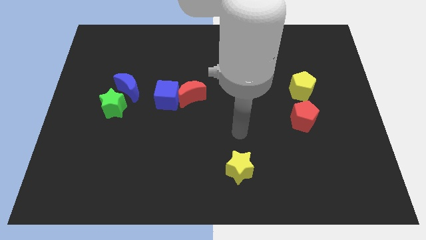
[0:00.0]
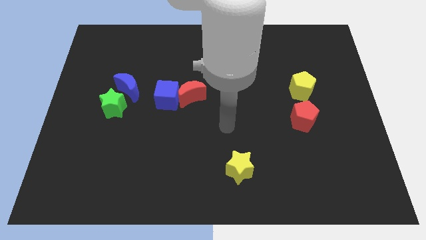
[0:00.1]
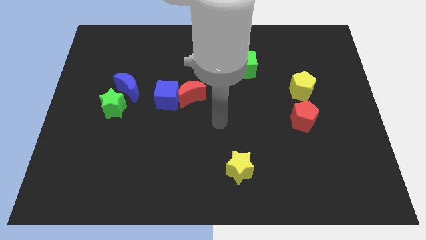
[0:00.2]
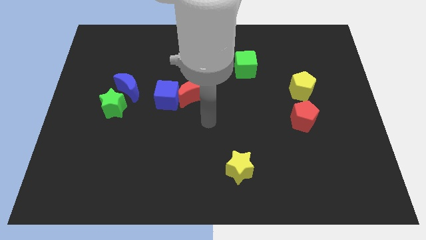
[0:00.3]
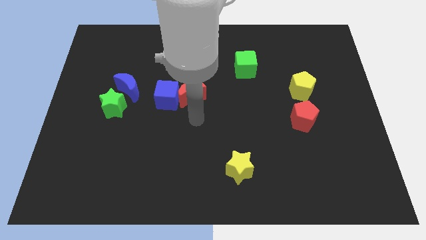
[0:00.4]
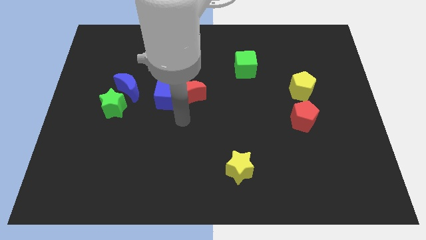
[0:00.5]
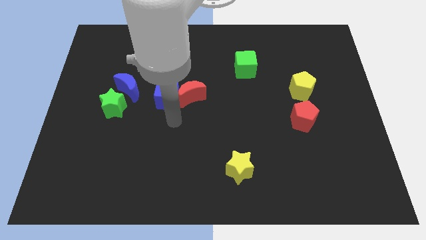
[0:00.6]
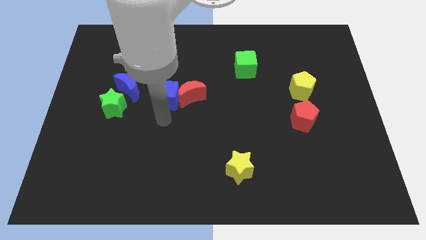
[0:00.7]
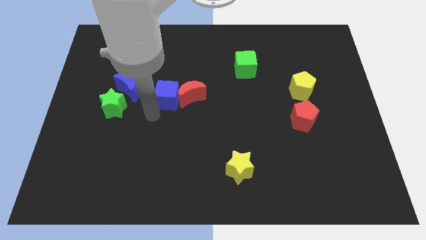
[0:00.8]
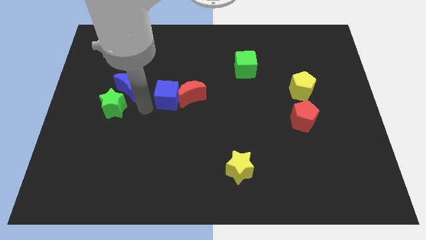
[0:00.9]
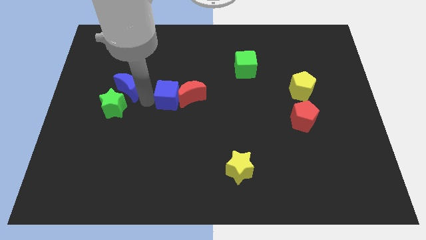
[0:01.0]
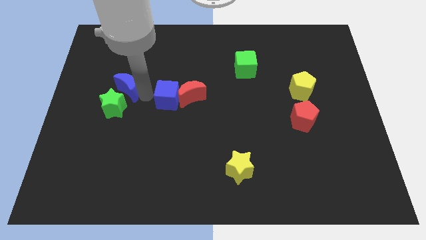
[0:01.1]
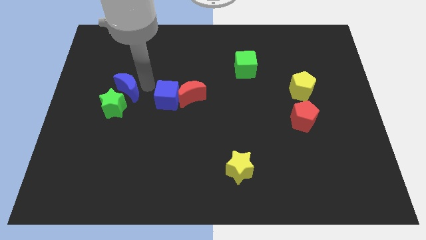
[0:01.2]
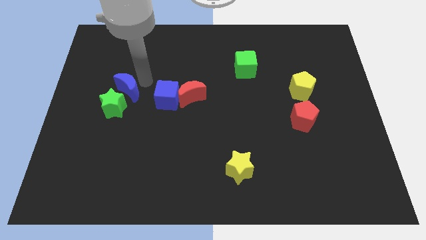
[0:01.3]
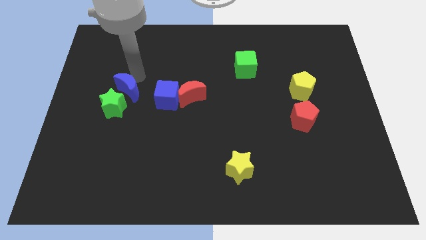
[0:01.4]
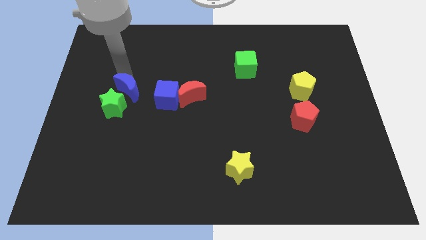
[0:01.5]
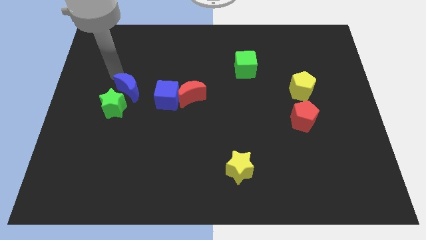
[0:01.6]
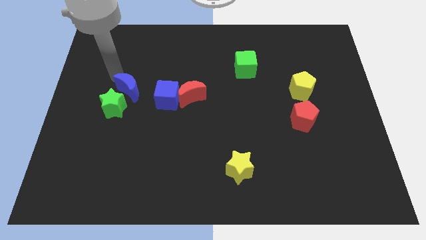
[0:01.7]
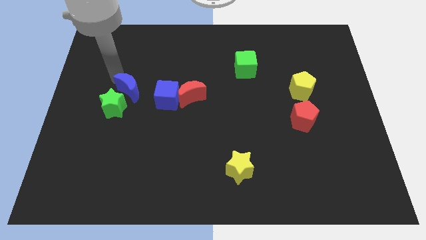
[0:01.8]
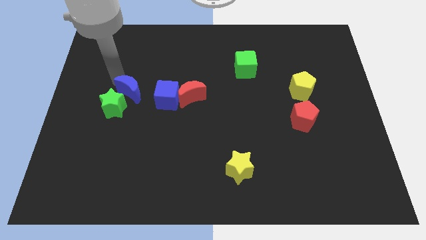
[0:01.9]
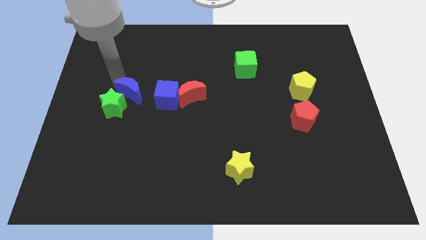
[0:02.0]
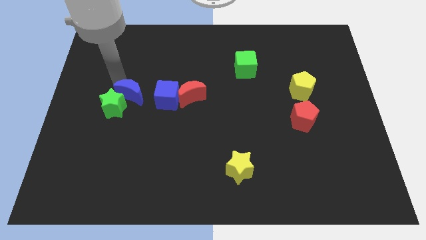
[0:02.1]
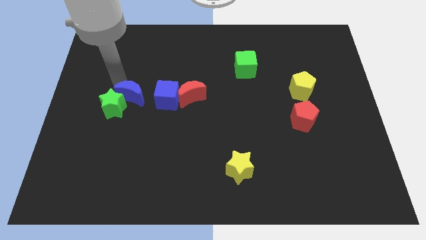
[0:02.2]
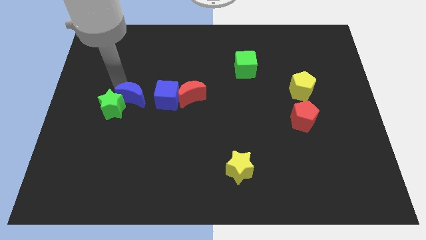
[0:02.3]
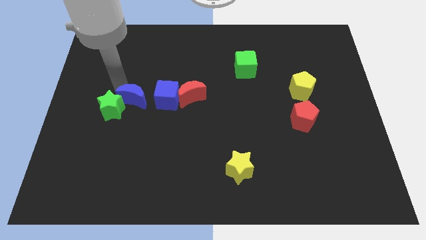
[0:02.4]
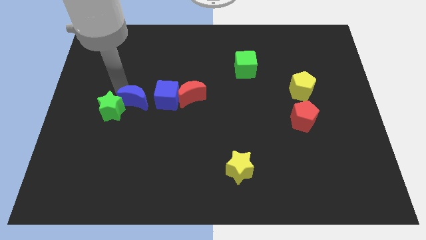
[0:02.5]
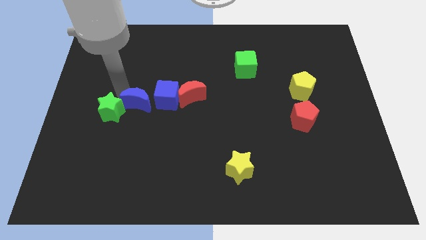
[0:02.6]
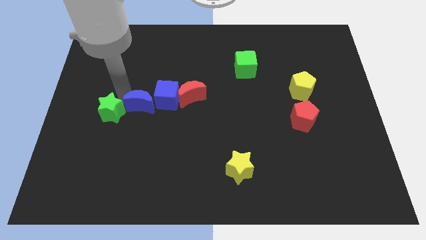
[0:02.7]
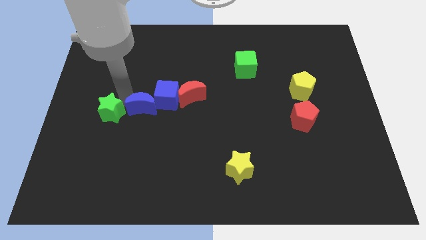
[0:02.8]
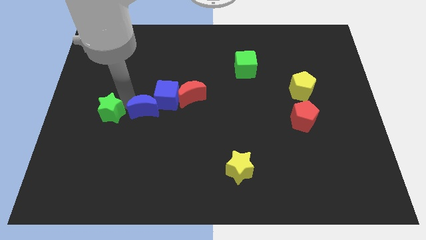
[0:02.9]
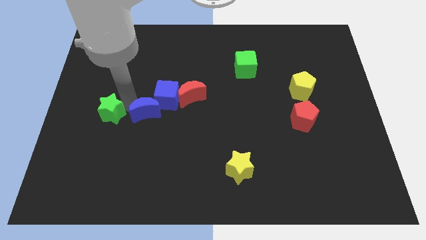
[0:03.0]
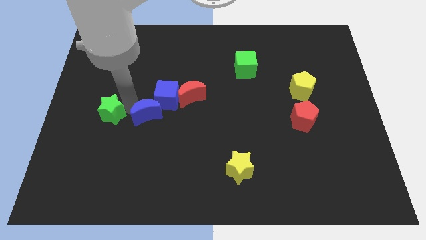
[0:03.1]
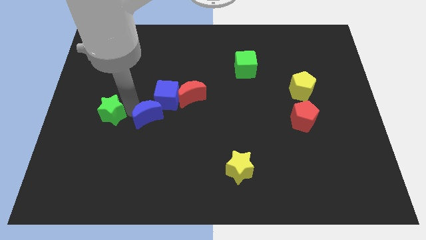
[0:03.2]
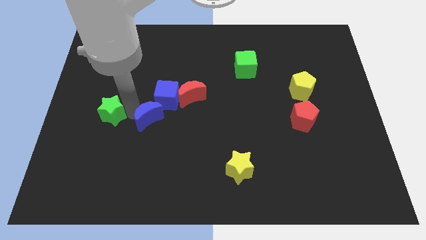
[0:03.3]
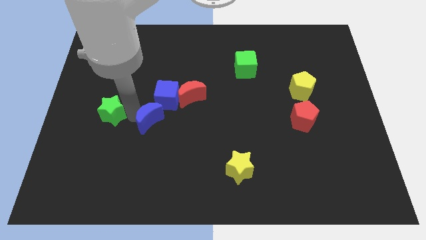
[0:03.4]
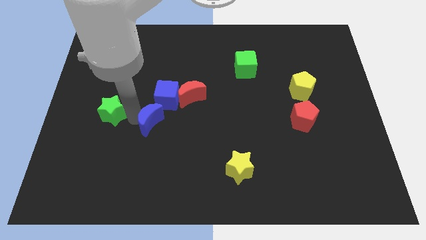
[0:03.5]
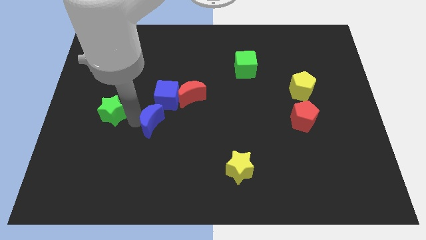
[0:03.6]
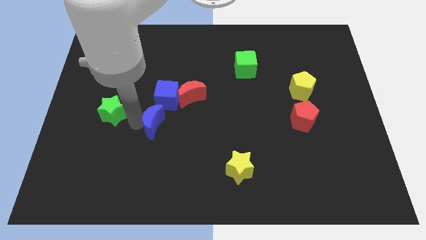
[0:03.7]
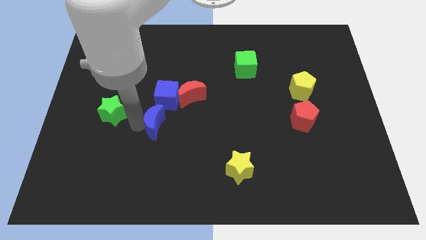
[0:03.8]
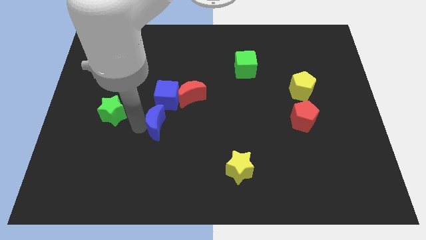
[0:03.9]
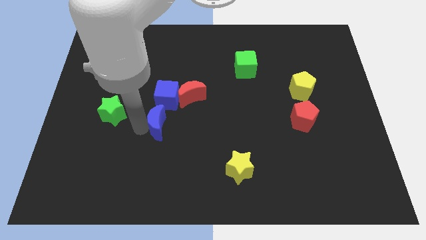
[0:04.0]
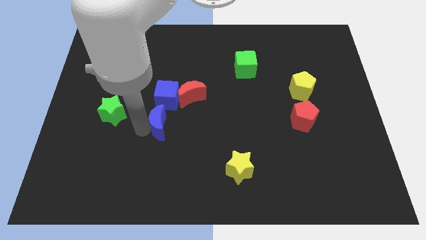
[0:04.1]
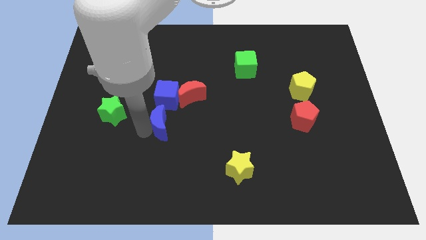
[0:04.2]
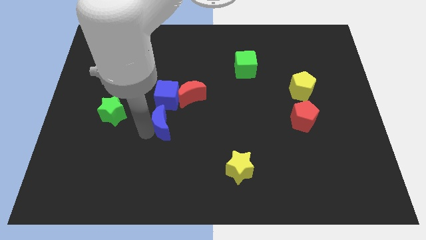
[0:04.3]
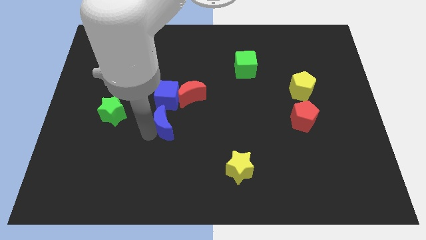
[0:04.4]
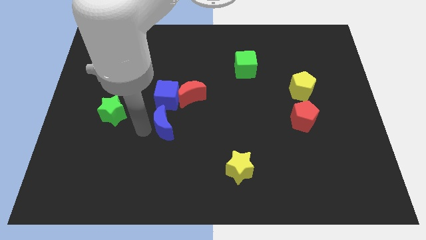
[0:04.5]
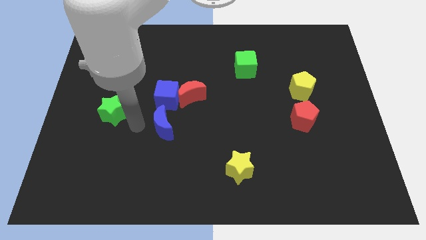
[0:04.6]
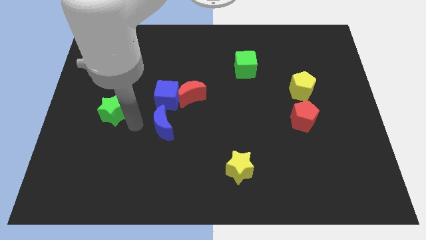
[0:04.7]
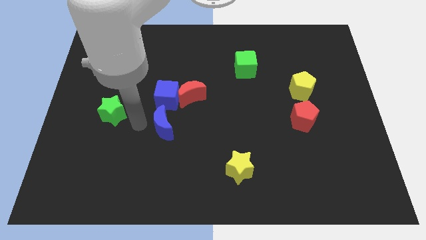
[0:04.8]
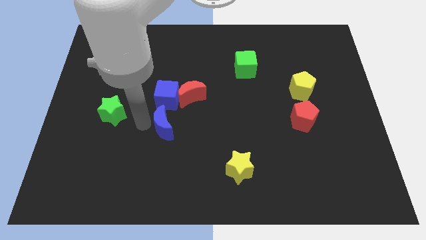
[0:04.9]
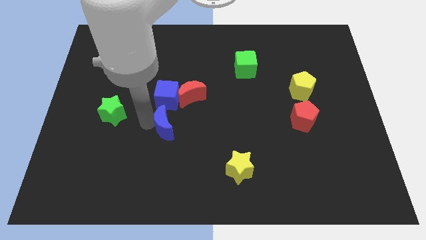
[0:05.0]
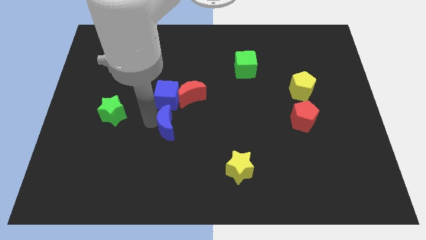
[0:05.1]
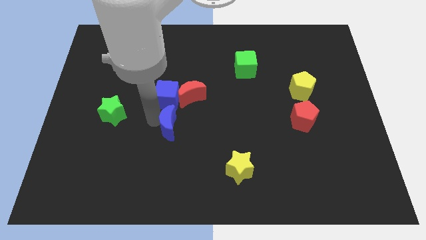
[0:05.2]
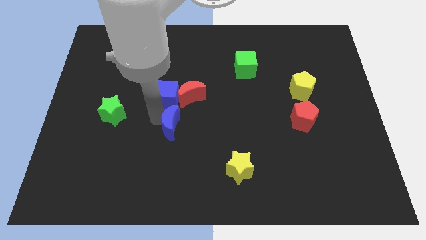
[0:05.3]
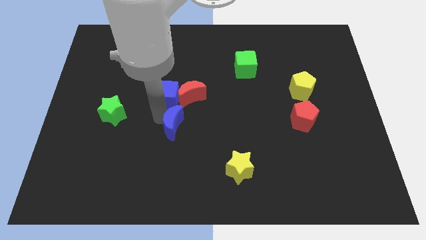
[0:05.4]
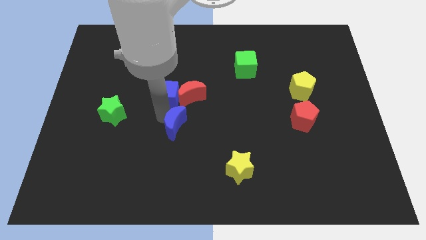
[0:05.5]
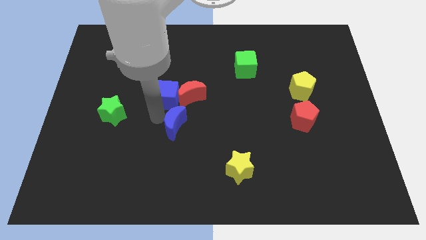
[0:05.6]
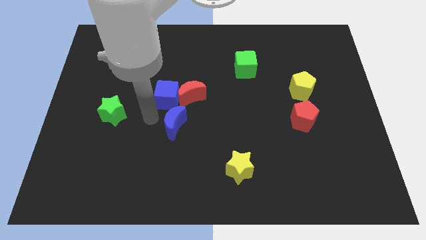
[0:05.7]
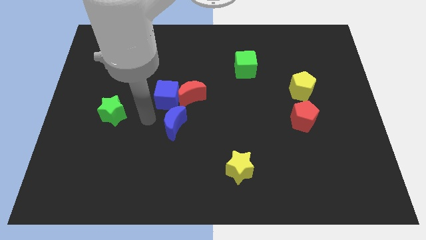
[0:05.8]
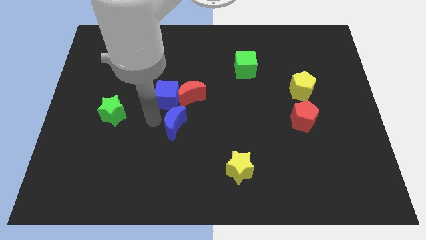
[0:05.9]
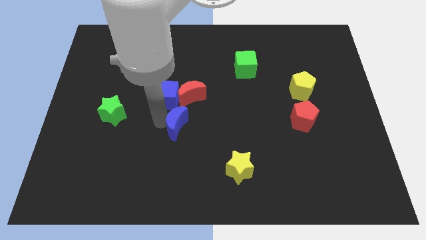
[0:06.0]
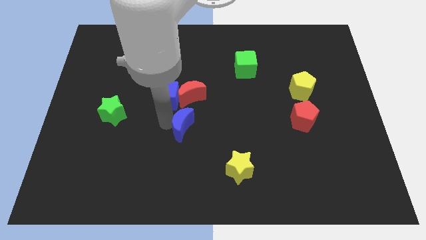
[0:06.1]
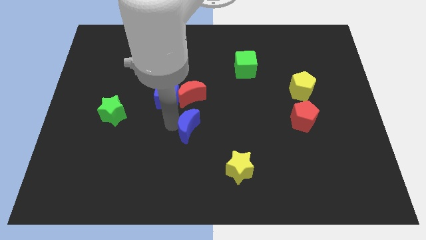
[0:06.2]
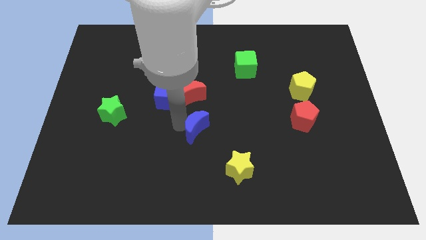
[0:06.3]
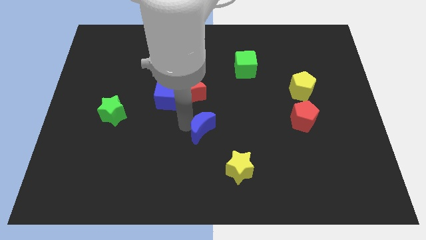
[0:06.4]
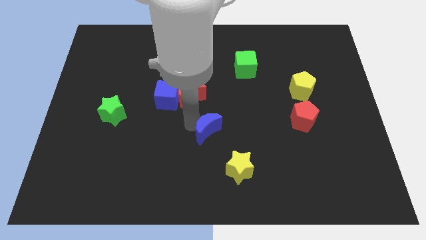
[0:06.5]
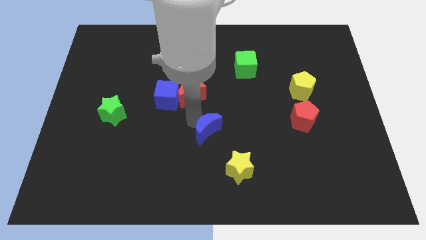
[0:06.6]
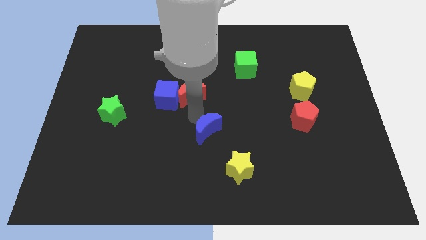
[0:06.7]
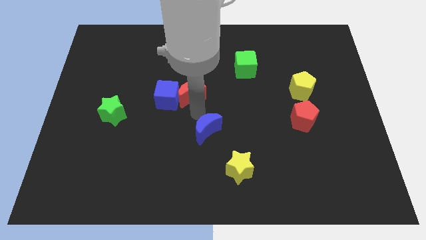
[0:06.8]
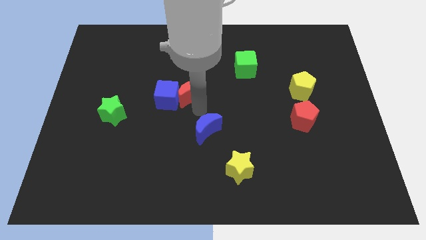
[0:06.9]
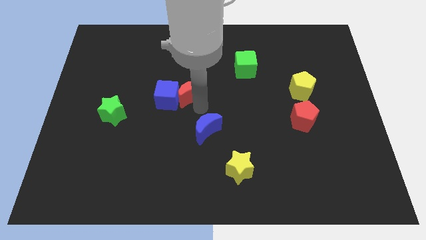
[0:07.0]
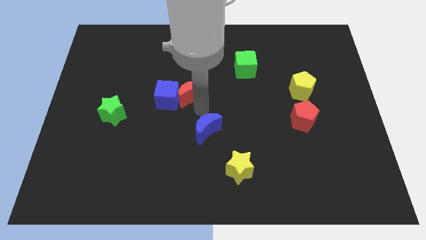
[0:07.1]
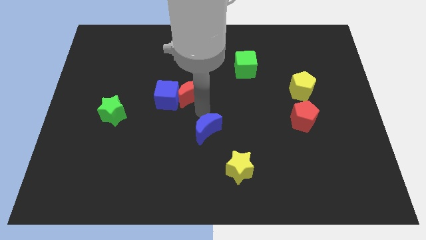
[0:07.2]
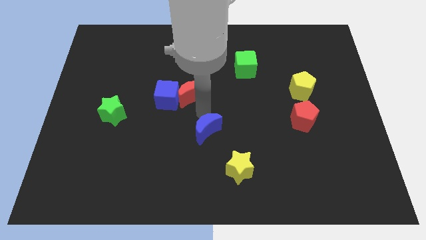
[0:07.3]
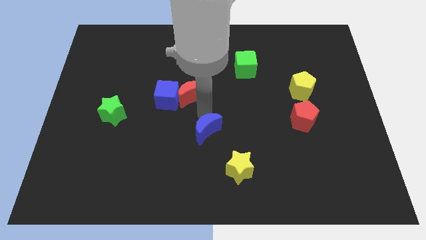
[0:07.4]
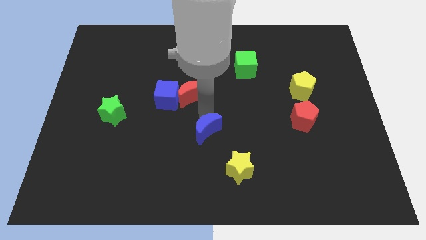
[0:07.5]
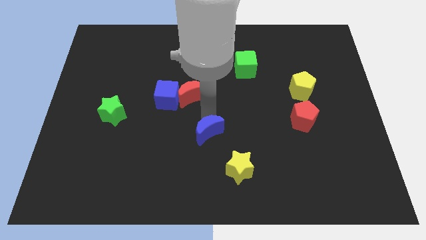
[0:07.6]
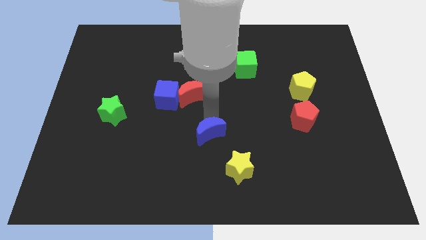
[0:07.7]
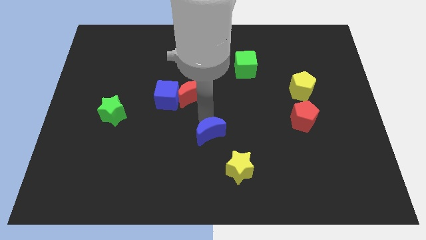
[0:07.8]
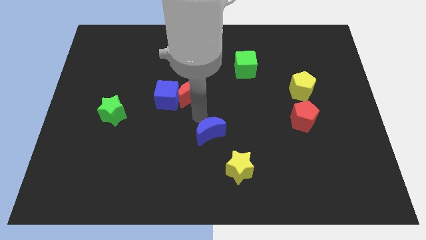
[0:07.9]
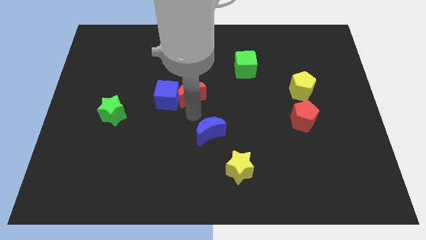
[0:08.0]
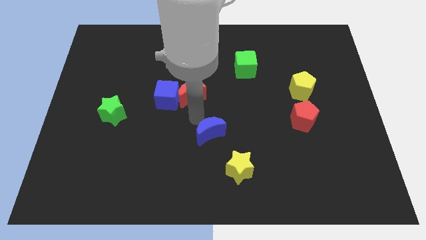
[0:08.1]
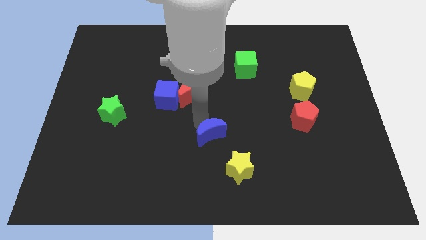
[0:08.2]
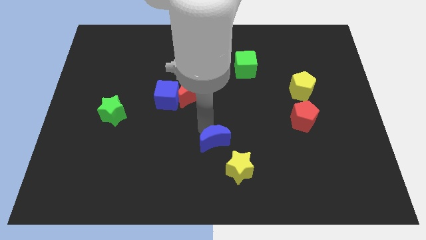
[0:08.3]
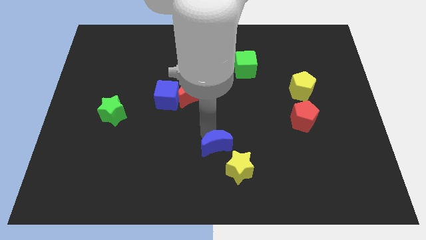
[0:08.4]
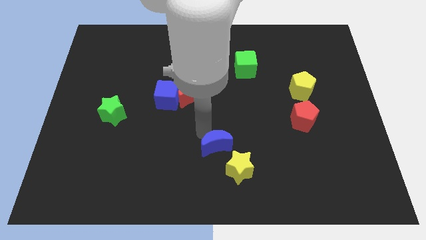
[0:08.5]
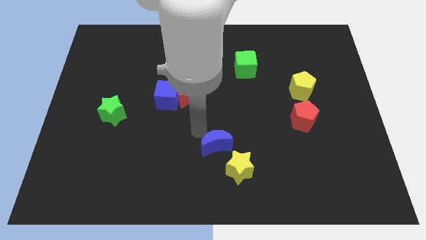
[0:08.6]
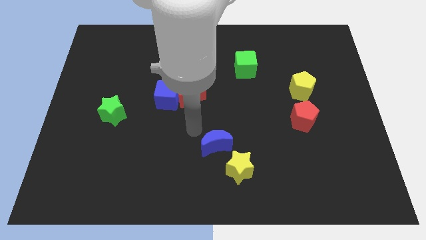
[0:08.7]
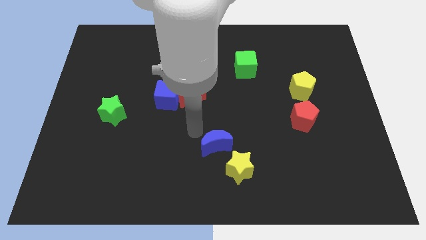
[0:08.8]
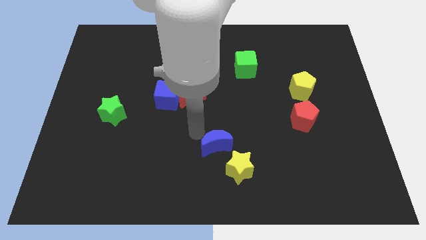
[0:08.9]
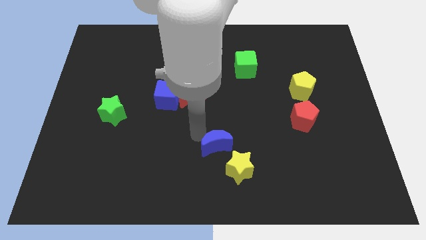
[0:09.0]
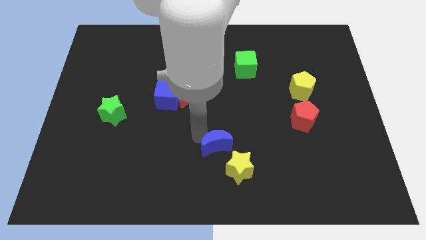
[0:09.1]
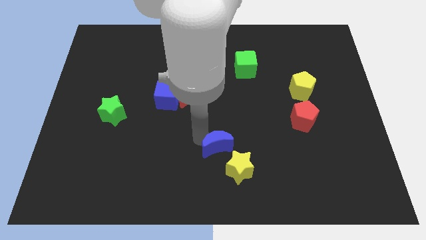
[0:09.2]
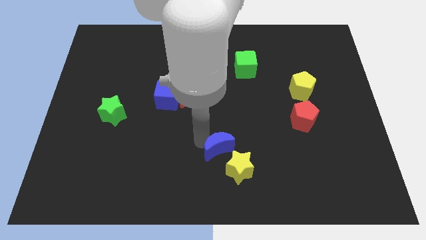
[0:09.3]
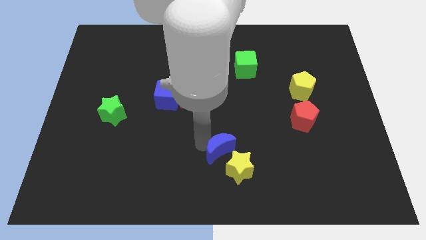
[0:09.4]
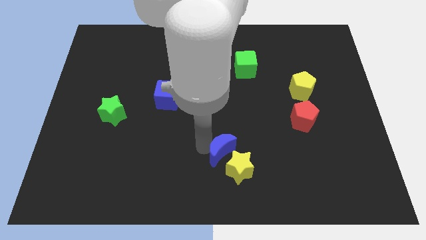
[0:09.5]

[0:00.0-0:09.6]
slide the blue moon towards the yellow star
